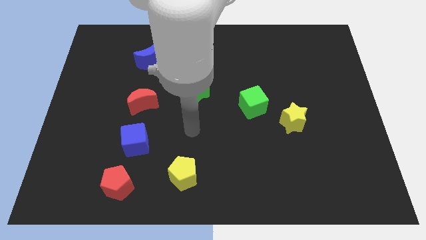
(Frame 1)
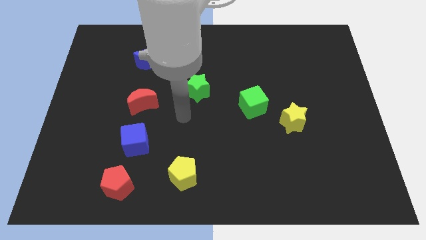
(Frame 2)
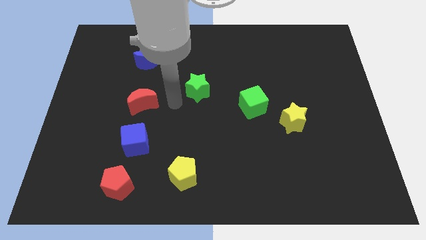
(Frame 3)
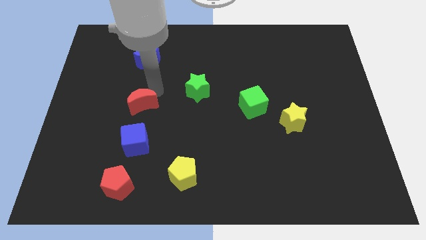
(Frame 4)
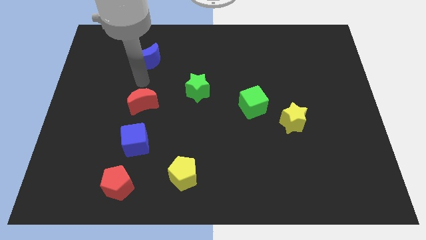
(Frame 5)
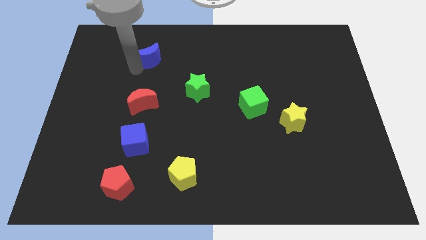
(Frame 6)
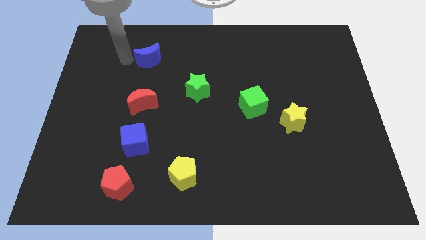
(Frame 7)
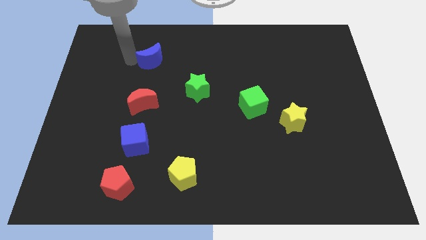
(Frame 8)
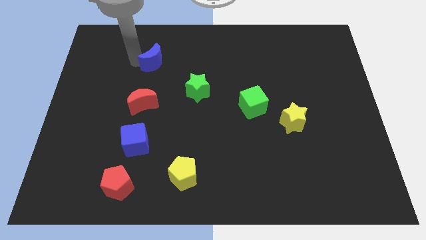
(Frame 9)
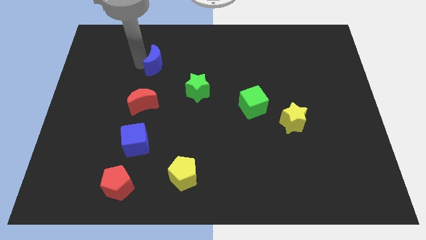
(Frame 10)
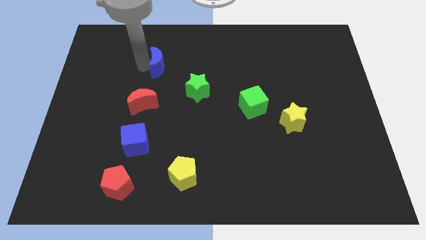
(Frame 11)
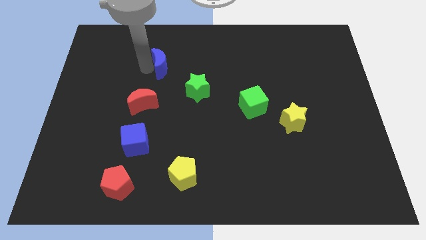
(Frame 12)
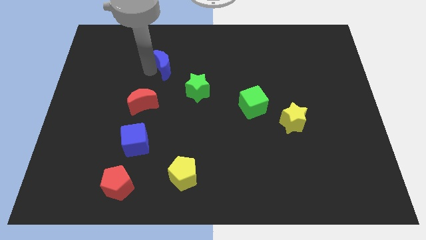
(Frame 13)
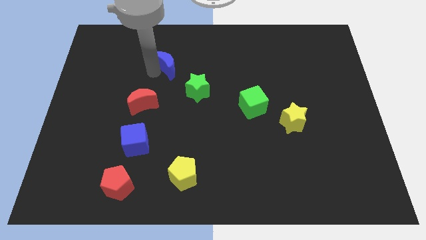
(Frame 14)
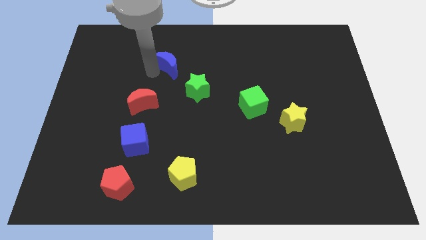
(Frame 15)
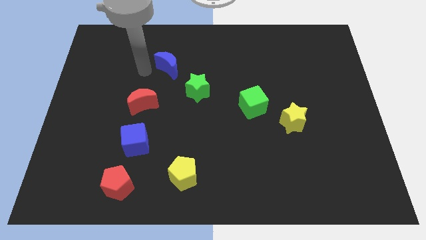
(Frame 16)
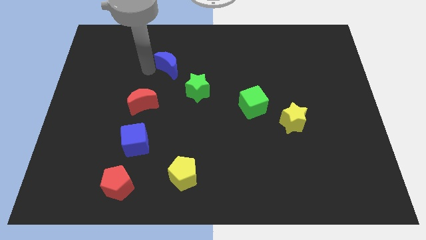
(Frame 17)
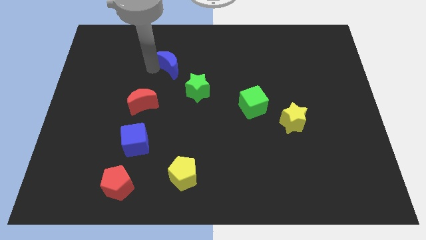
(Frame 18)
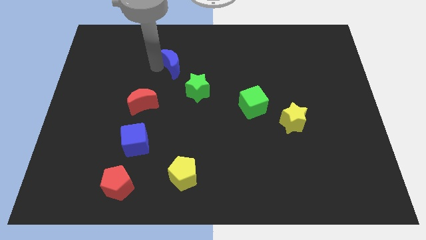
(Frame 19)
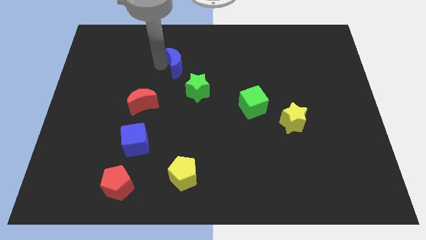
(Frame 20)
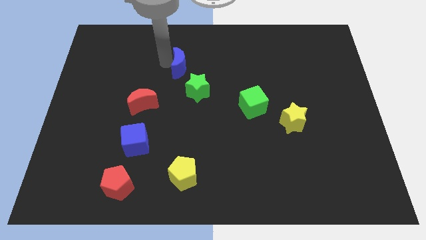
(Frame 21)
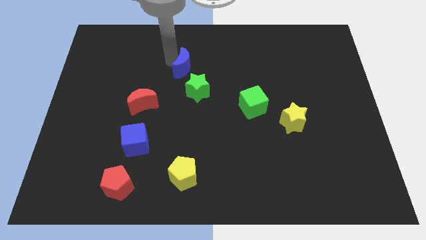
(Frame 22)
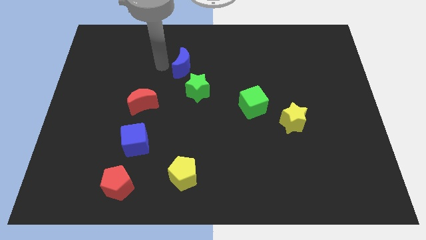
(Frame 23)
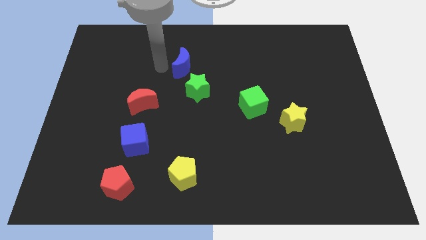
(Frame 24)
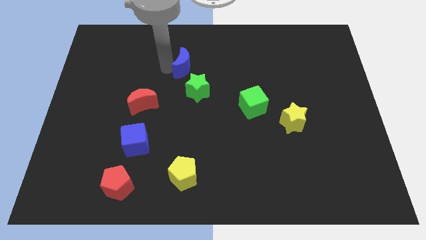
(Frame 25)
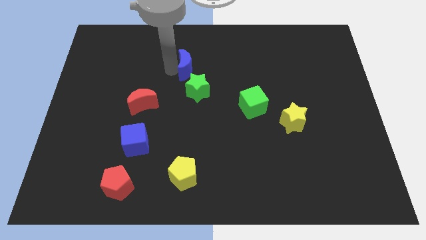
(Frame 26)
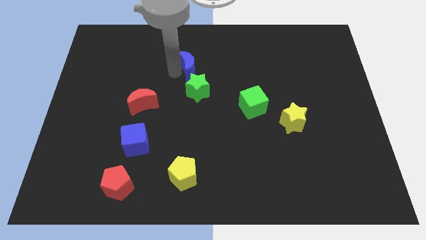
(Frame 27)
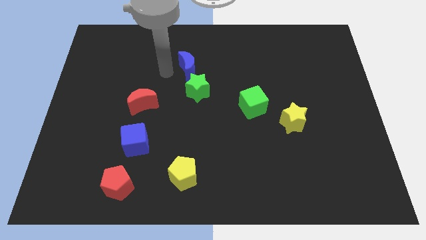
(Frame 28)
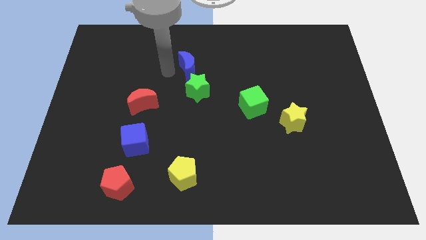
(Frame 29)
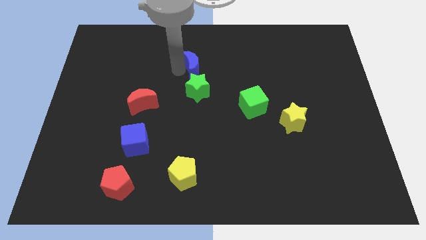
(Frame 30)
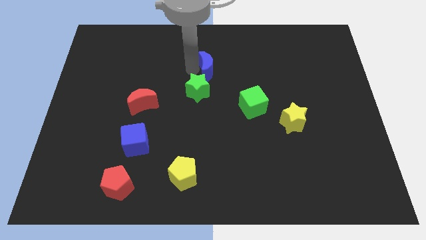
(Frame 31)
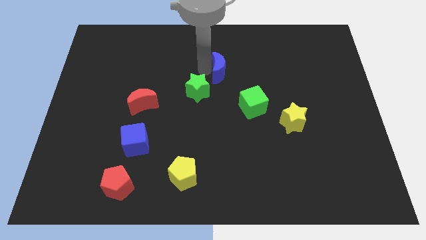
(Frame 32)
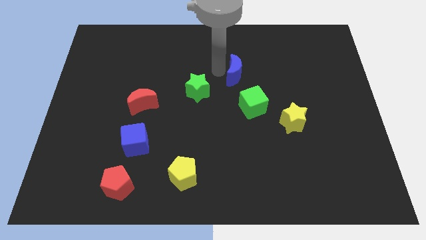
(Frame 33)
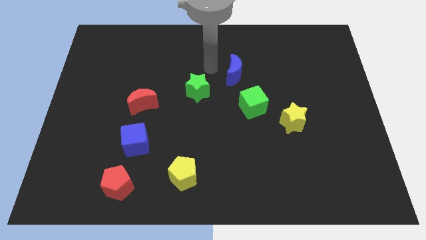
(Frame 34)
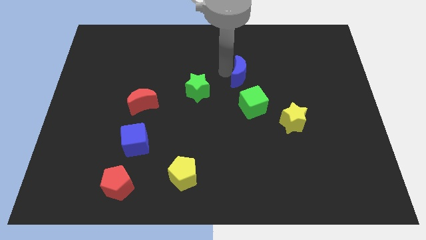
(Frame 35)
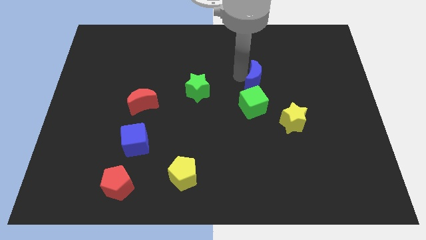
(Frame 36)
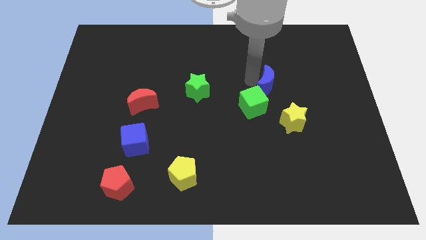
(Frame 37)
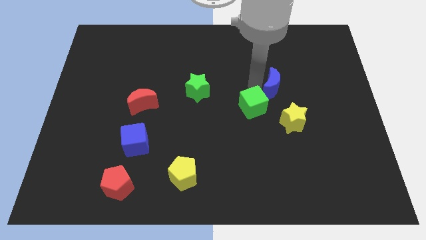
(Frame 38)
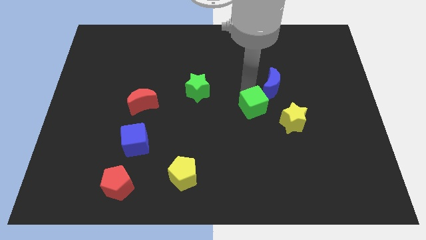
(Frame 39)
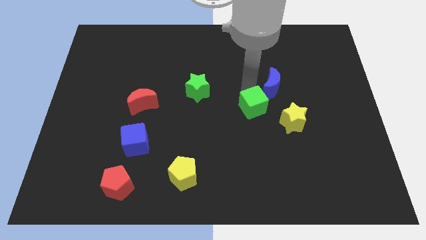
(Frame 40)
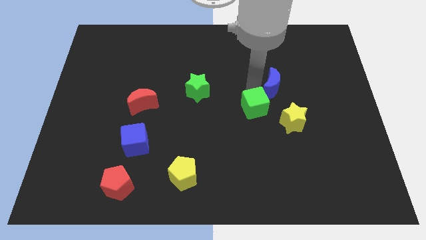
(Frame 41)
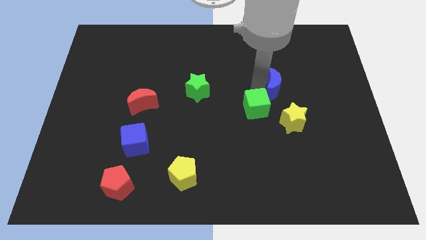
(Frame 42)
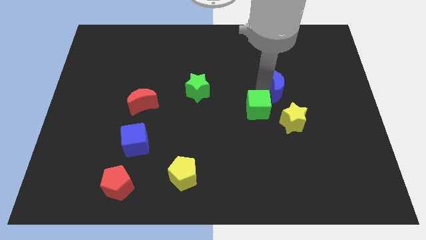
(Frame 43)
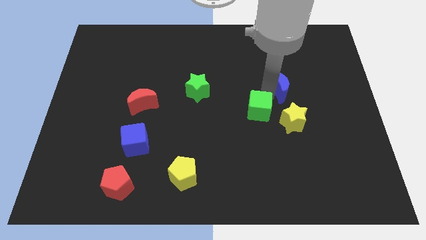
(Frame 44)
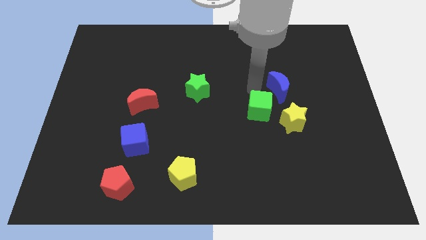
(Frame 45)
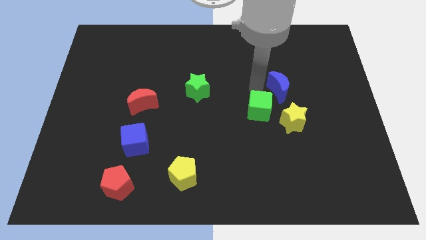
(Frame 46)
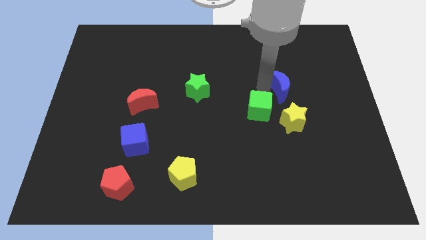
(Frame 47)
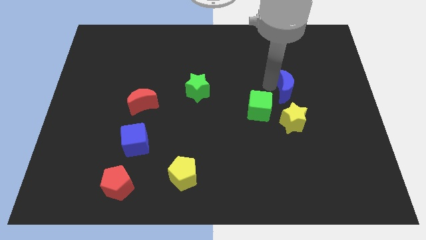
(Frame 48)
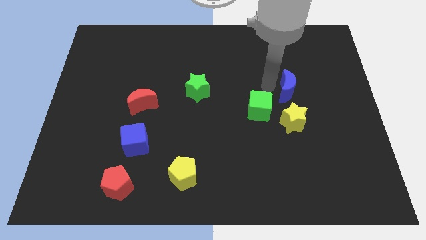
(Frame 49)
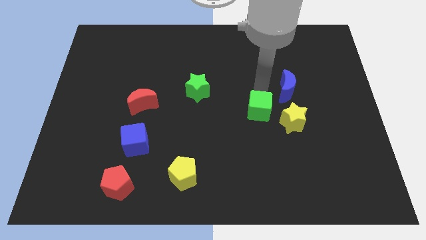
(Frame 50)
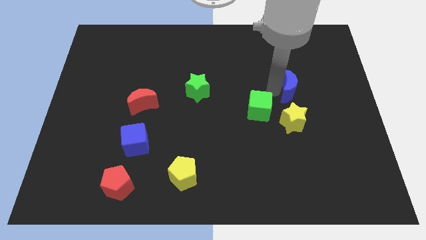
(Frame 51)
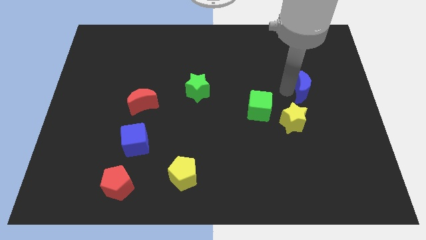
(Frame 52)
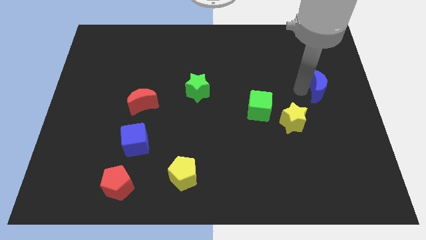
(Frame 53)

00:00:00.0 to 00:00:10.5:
put the blue moon to the right side

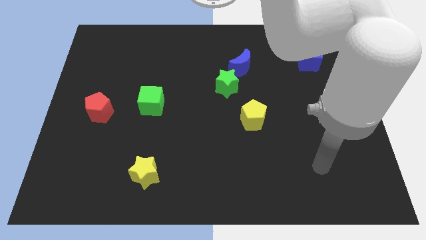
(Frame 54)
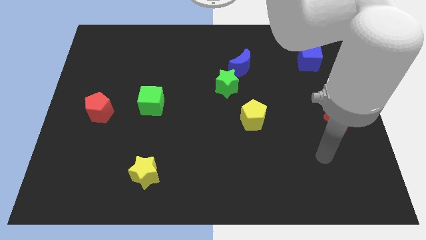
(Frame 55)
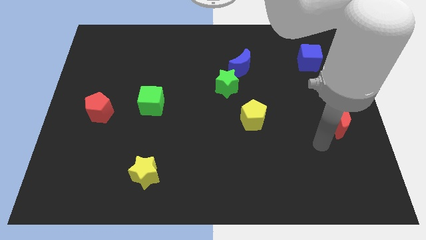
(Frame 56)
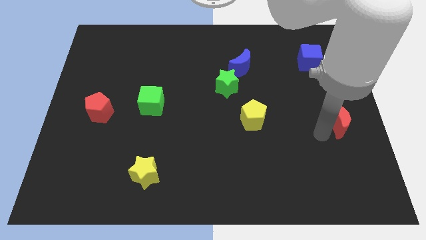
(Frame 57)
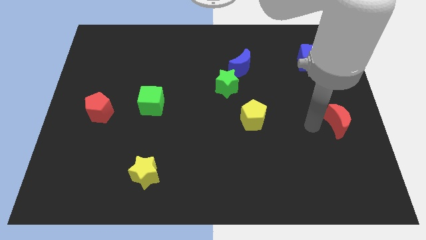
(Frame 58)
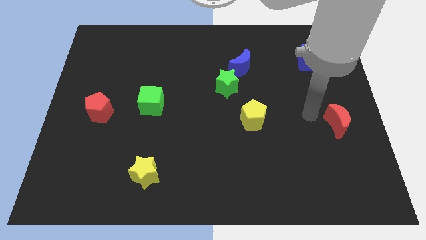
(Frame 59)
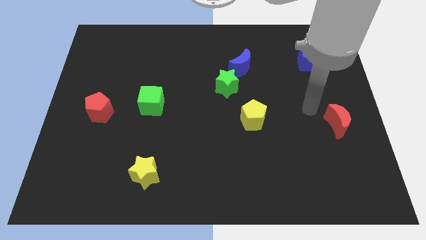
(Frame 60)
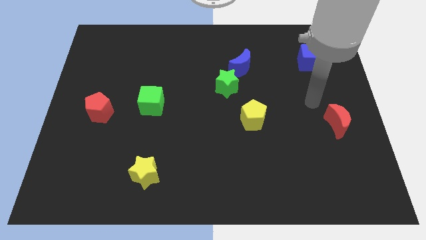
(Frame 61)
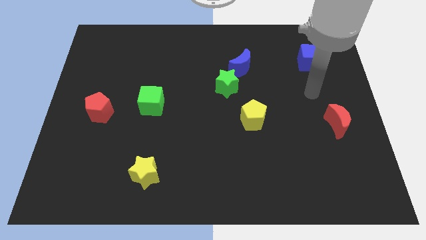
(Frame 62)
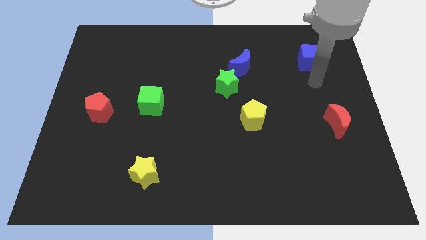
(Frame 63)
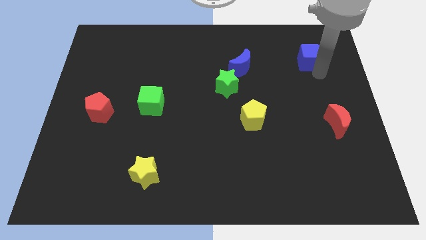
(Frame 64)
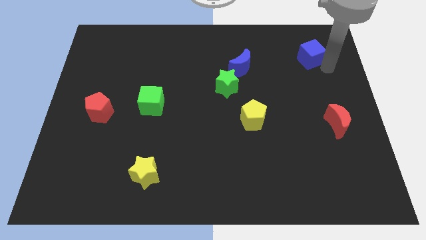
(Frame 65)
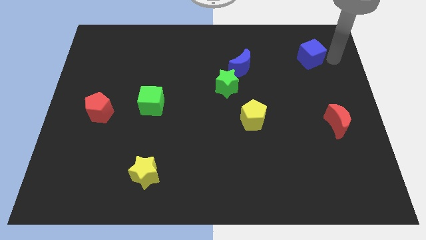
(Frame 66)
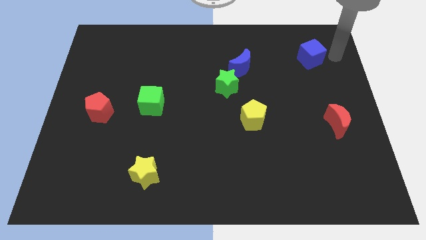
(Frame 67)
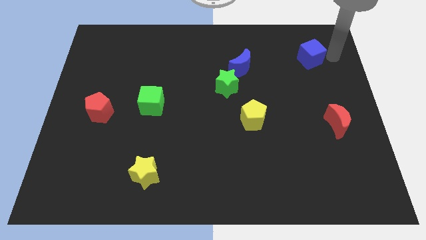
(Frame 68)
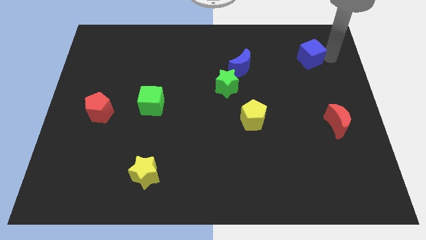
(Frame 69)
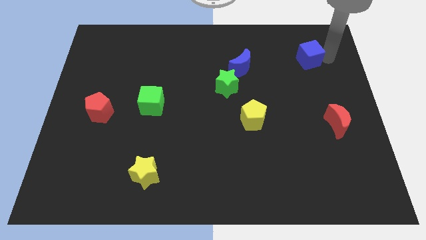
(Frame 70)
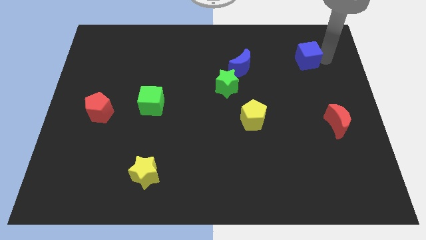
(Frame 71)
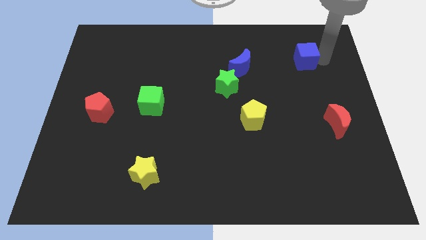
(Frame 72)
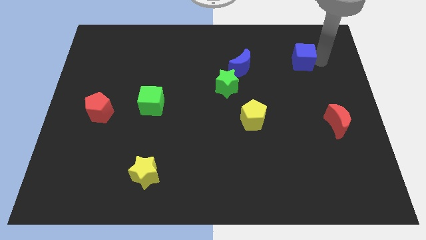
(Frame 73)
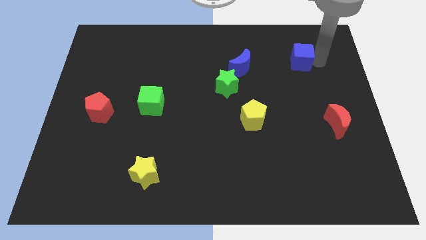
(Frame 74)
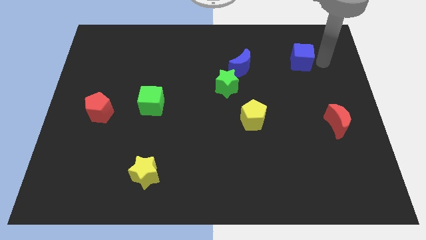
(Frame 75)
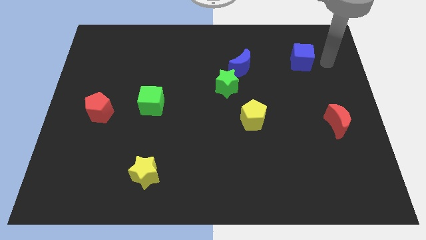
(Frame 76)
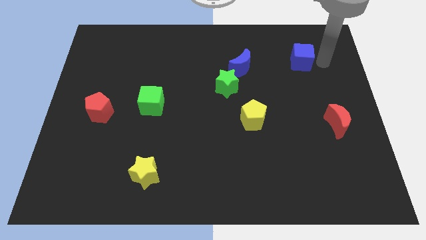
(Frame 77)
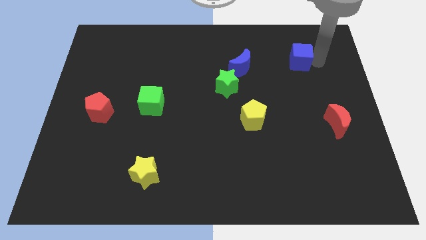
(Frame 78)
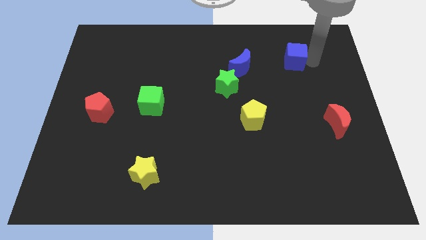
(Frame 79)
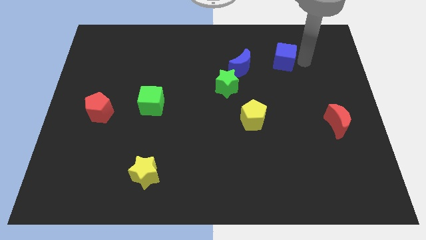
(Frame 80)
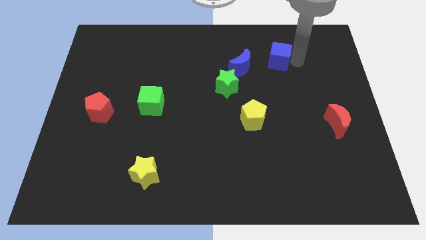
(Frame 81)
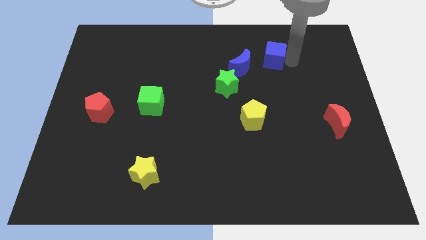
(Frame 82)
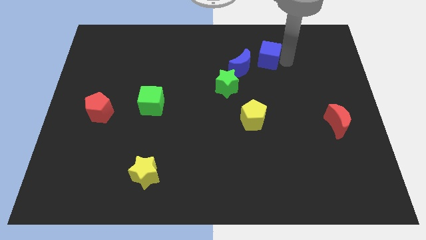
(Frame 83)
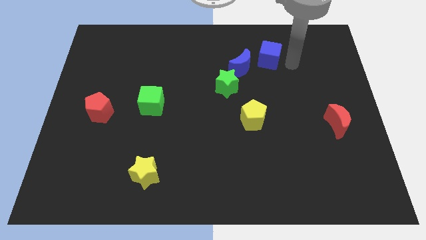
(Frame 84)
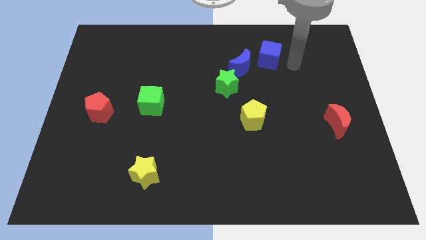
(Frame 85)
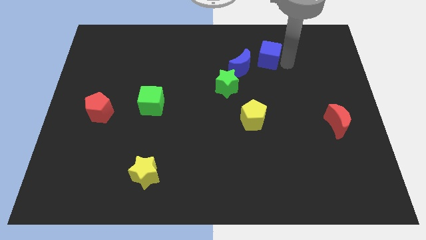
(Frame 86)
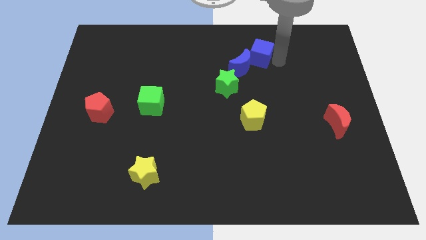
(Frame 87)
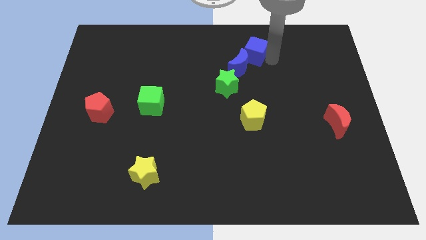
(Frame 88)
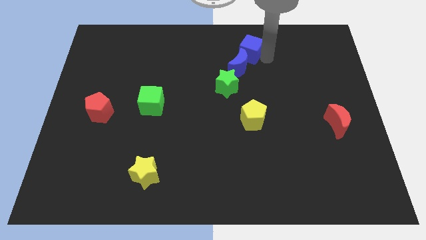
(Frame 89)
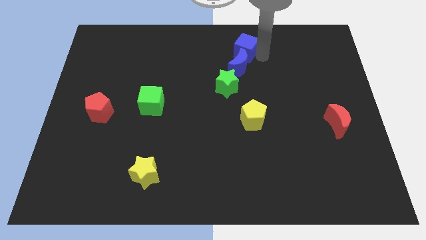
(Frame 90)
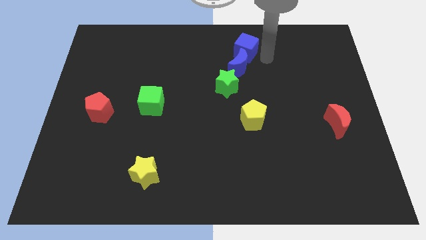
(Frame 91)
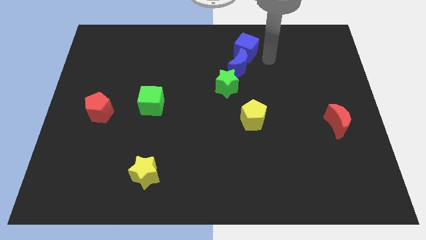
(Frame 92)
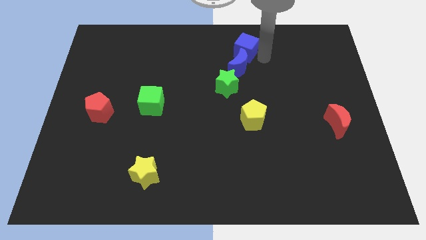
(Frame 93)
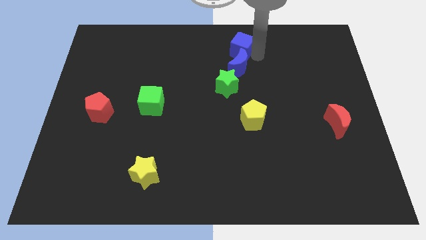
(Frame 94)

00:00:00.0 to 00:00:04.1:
push the blue cube to the top side
